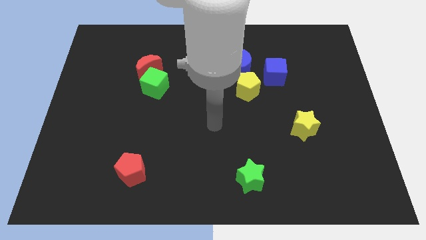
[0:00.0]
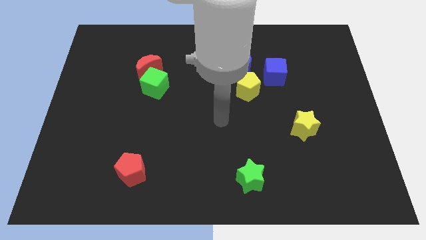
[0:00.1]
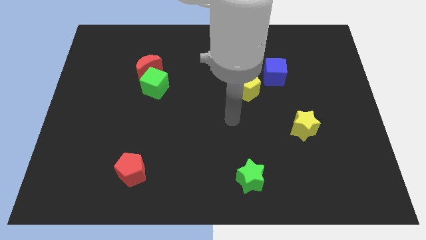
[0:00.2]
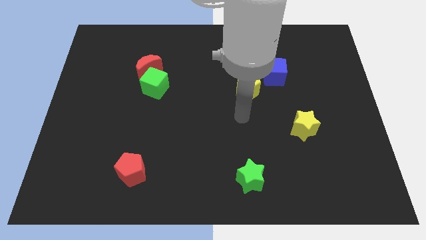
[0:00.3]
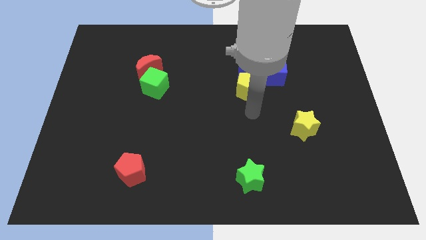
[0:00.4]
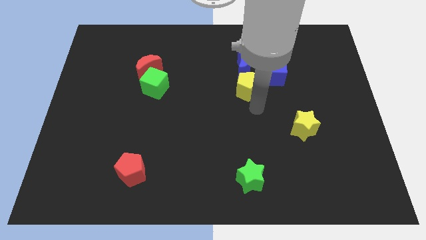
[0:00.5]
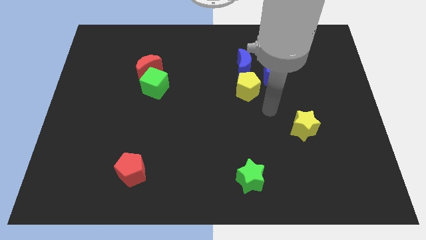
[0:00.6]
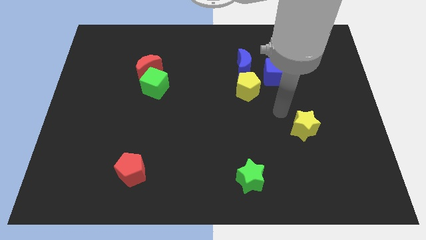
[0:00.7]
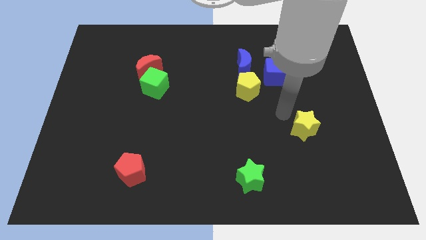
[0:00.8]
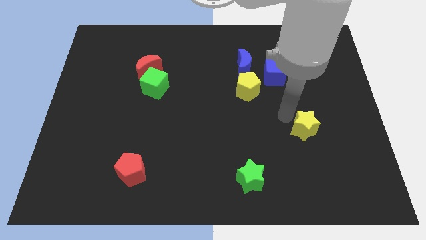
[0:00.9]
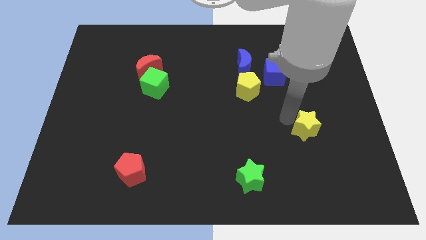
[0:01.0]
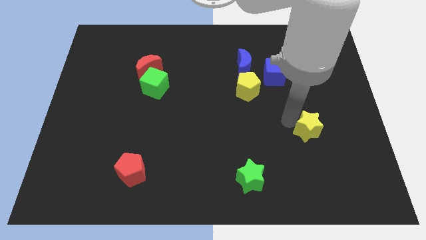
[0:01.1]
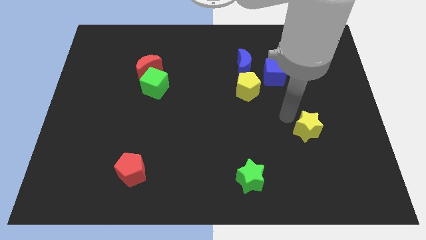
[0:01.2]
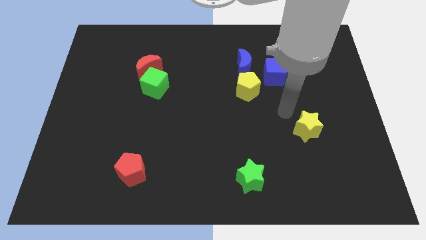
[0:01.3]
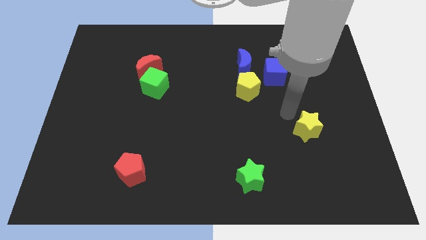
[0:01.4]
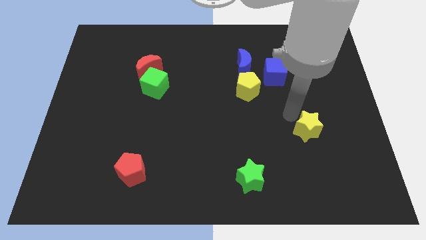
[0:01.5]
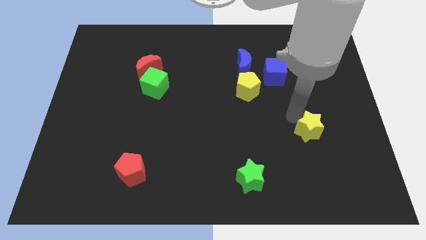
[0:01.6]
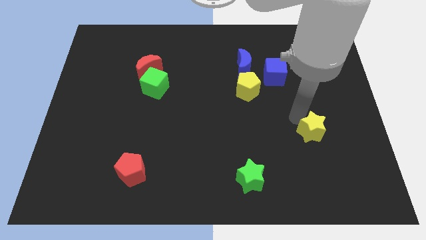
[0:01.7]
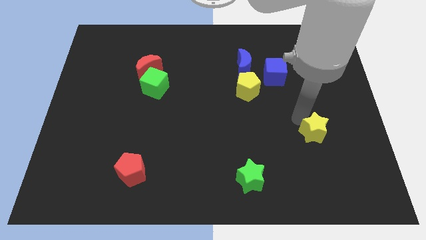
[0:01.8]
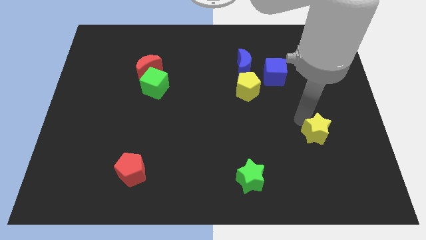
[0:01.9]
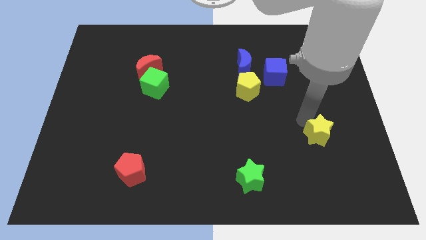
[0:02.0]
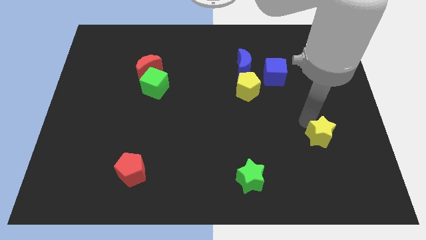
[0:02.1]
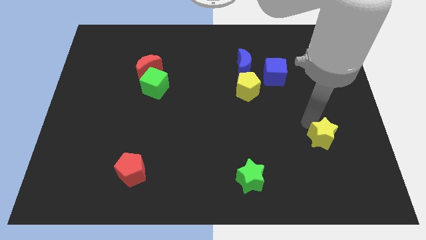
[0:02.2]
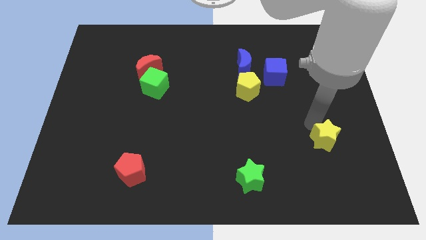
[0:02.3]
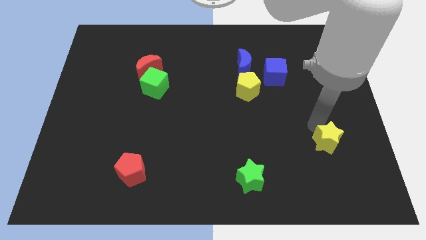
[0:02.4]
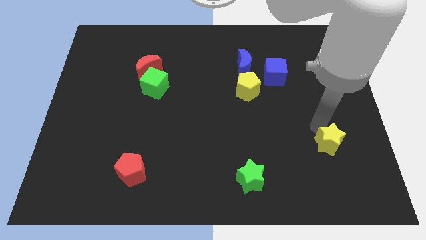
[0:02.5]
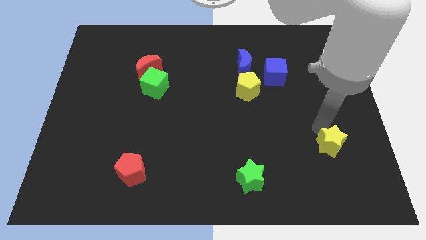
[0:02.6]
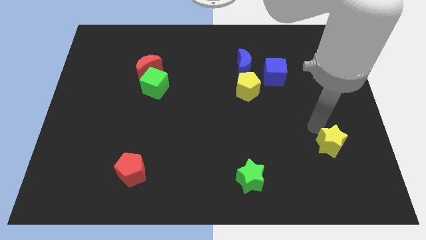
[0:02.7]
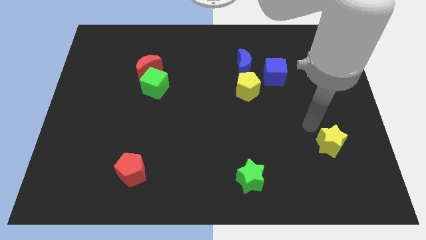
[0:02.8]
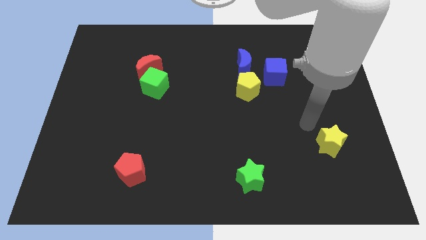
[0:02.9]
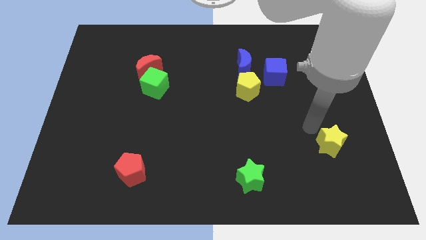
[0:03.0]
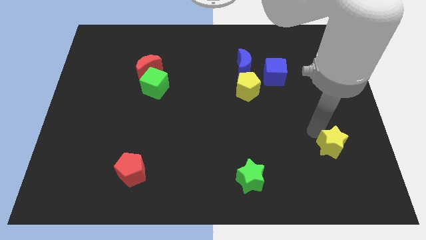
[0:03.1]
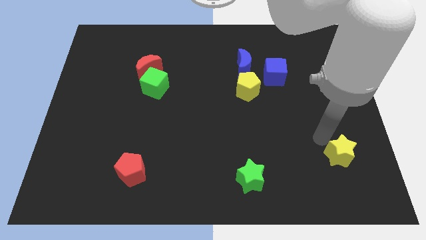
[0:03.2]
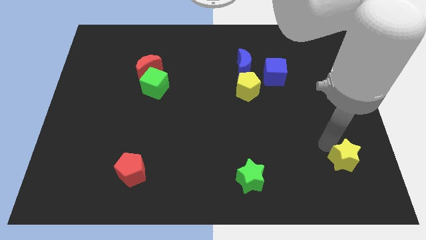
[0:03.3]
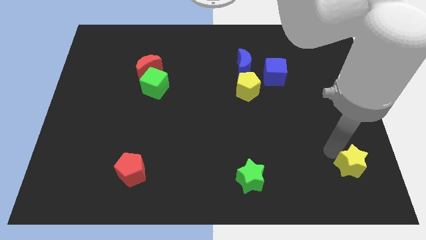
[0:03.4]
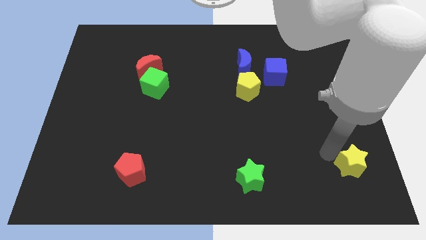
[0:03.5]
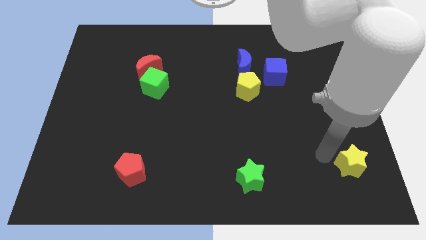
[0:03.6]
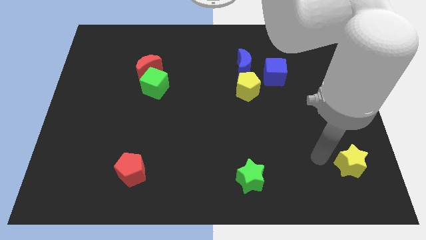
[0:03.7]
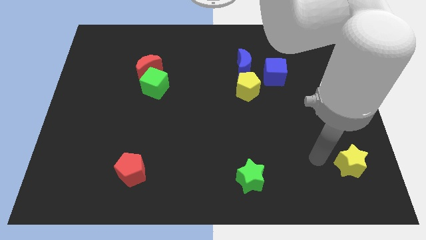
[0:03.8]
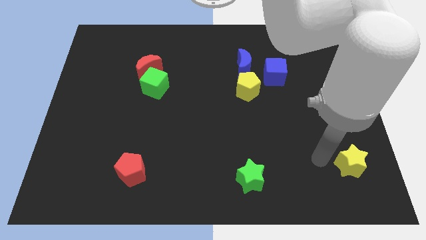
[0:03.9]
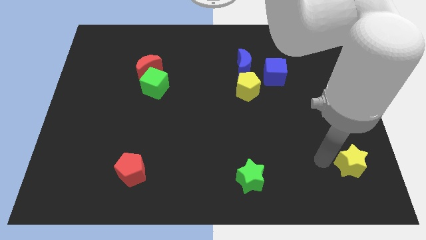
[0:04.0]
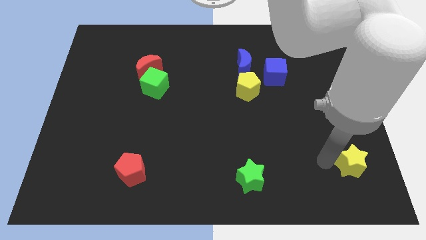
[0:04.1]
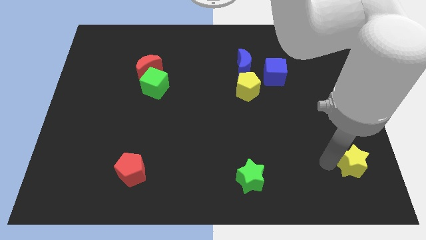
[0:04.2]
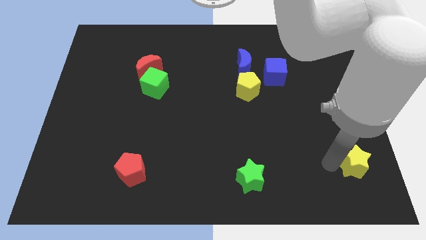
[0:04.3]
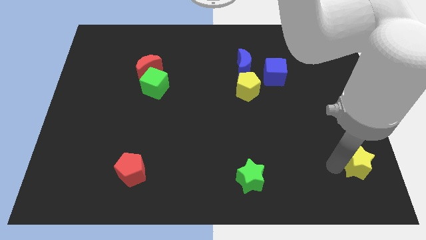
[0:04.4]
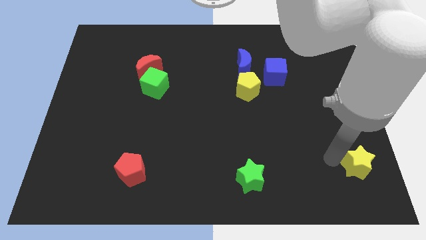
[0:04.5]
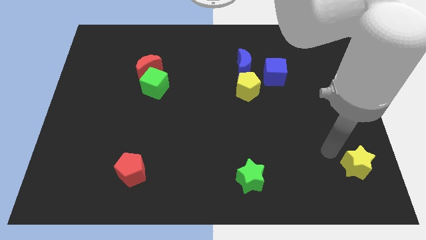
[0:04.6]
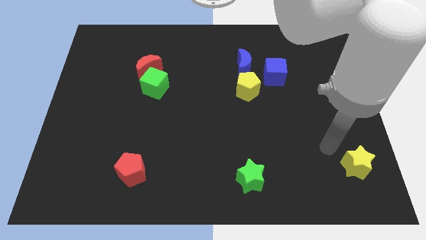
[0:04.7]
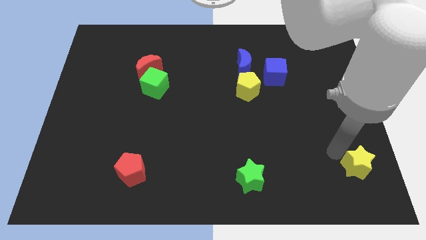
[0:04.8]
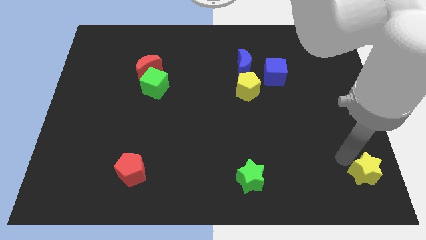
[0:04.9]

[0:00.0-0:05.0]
slide the yellow star to the bottom right

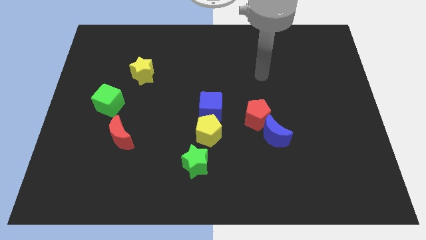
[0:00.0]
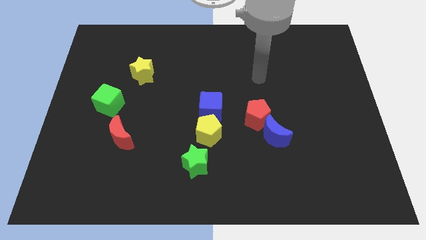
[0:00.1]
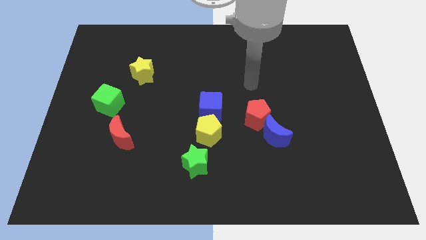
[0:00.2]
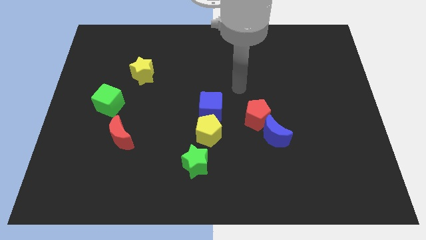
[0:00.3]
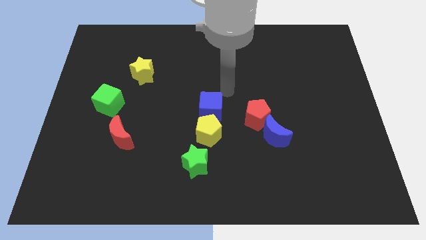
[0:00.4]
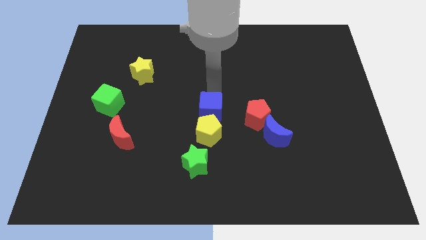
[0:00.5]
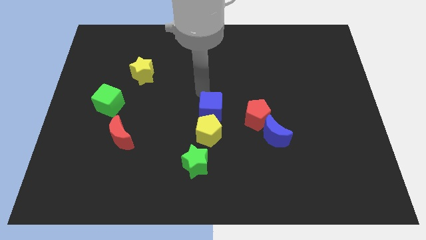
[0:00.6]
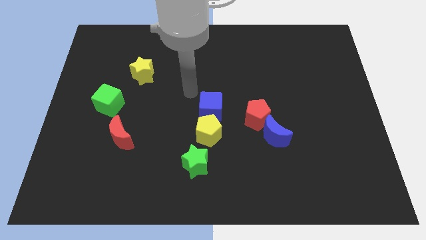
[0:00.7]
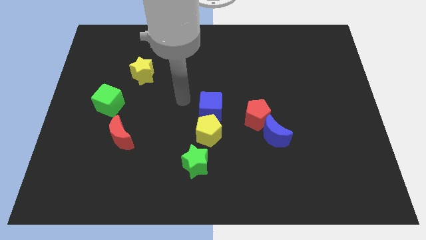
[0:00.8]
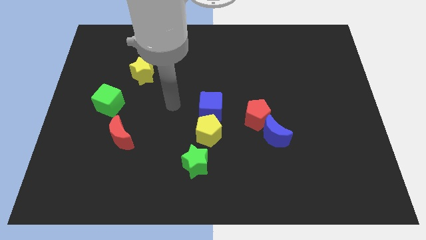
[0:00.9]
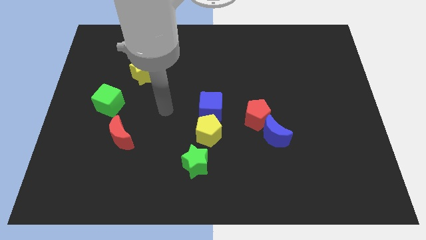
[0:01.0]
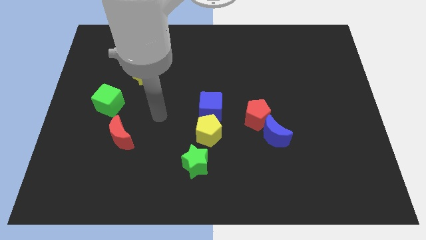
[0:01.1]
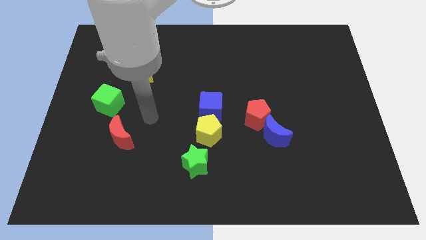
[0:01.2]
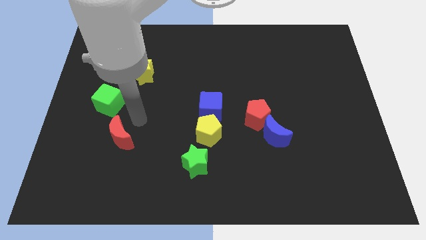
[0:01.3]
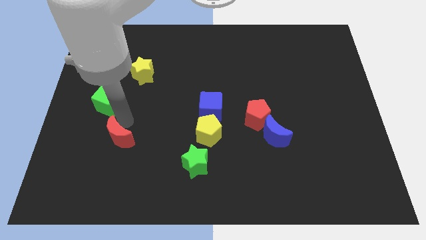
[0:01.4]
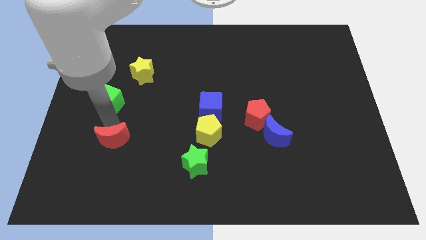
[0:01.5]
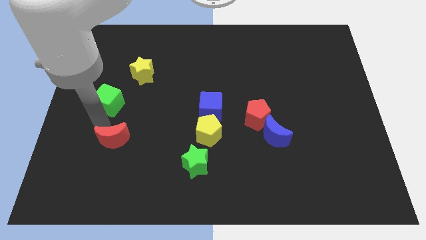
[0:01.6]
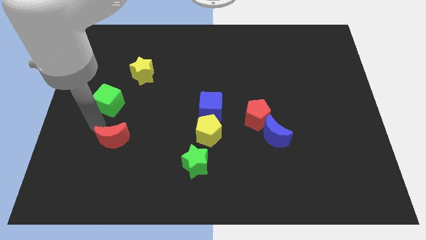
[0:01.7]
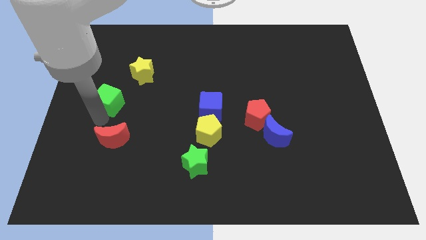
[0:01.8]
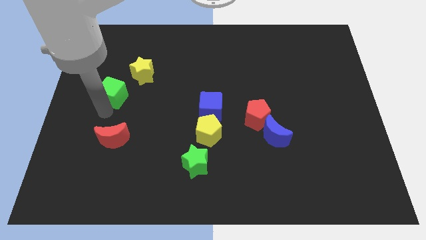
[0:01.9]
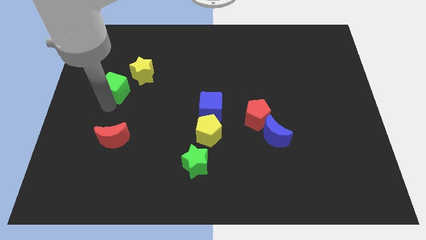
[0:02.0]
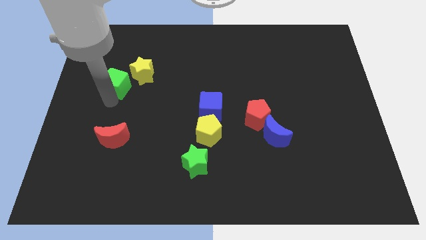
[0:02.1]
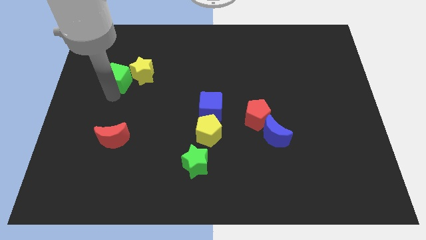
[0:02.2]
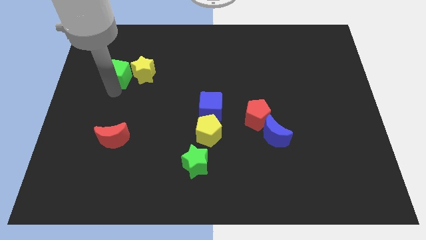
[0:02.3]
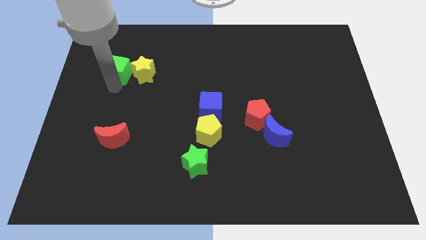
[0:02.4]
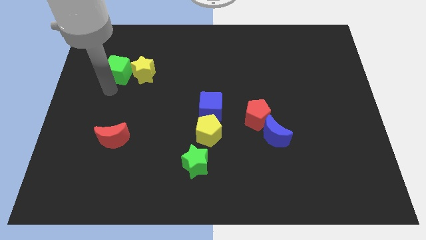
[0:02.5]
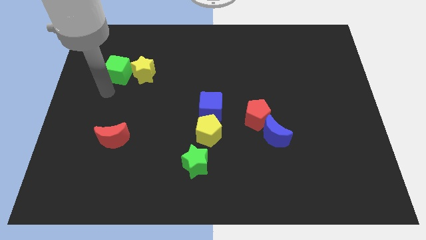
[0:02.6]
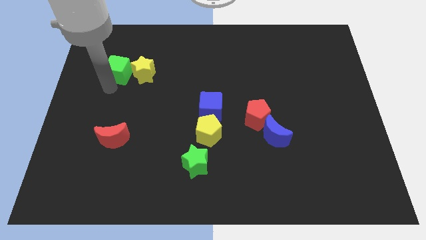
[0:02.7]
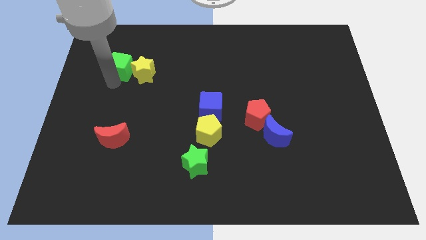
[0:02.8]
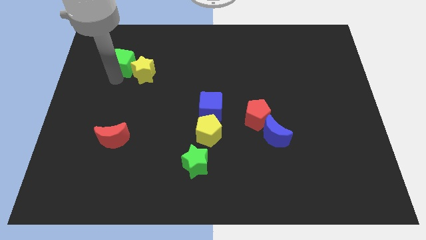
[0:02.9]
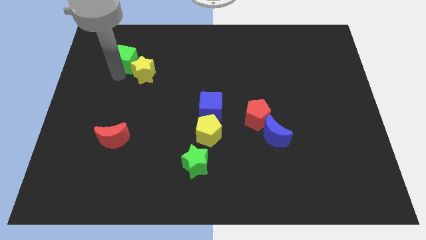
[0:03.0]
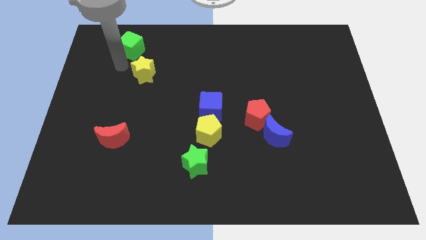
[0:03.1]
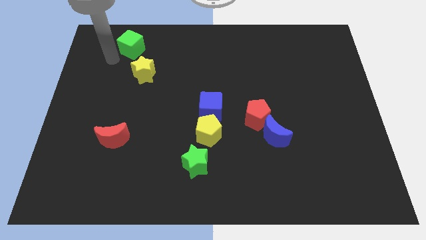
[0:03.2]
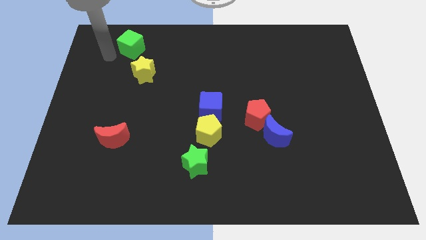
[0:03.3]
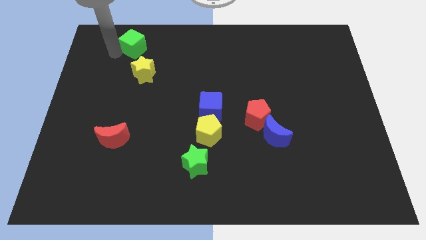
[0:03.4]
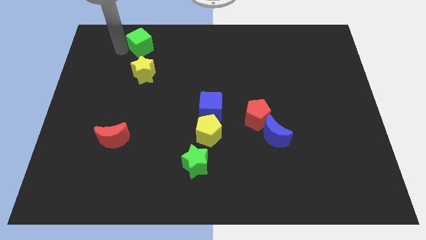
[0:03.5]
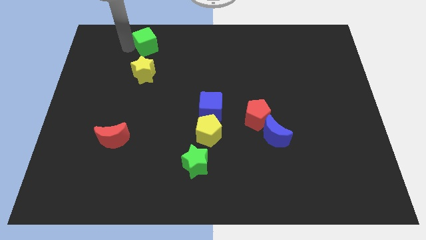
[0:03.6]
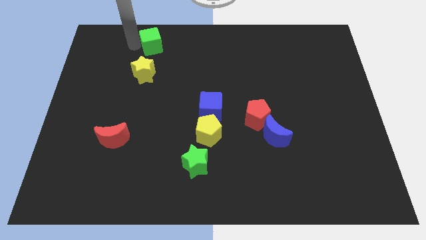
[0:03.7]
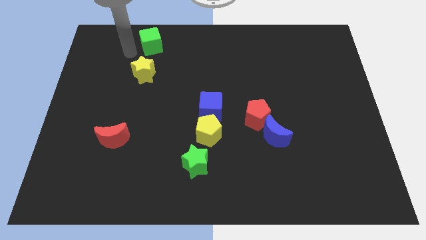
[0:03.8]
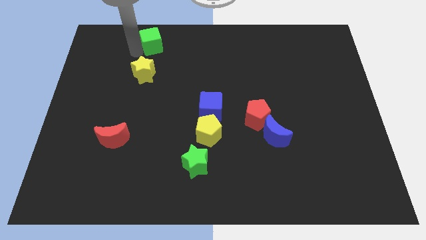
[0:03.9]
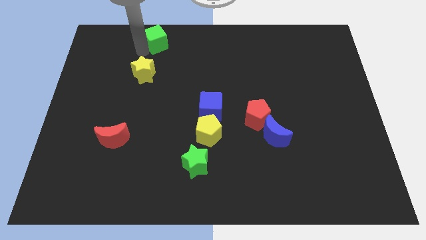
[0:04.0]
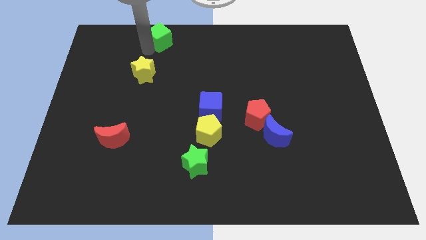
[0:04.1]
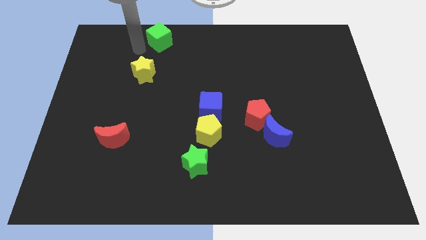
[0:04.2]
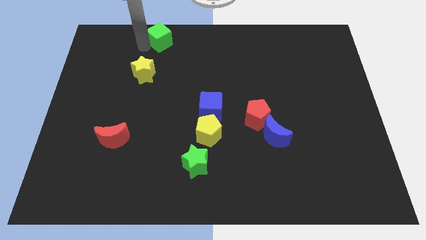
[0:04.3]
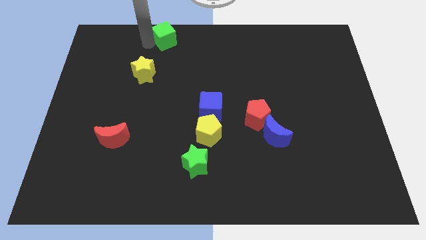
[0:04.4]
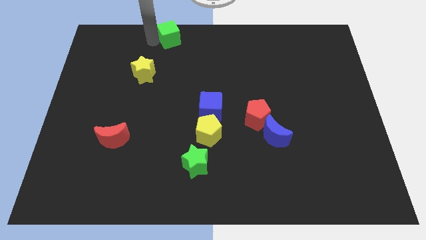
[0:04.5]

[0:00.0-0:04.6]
push the green cube to the top side
